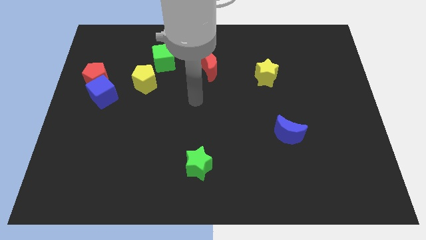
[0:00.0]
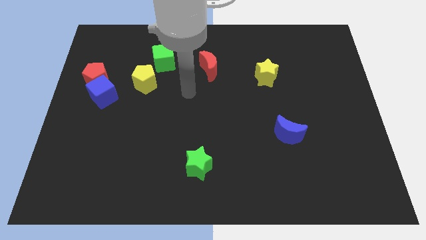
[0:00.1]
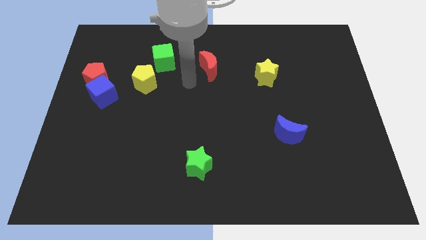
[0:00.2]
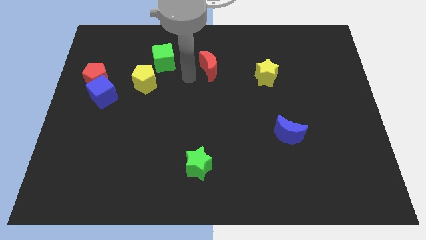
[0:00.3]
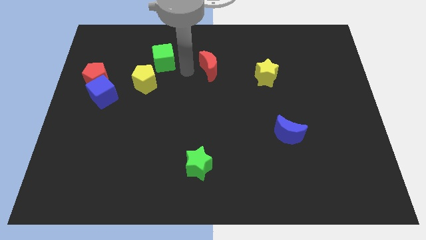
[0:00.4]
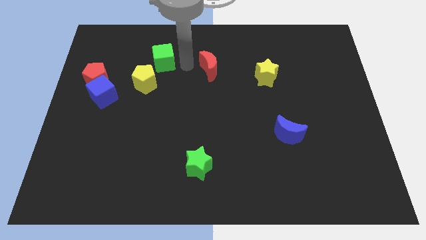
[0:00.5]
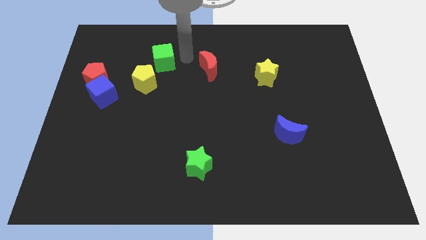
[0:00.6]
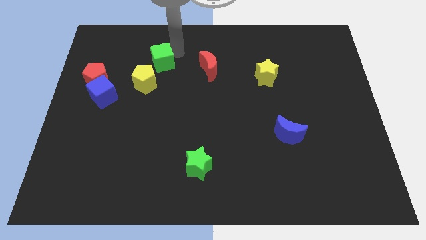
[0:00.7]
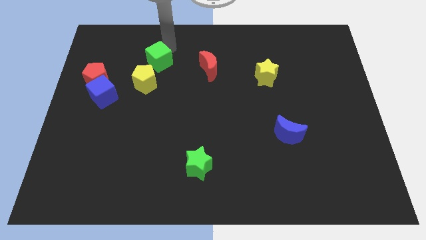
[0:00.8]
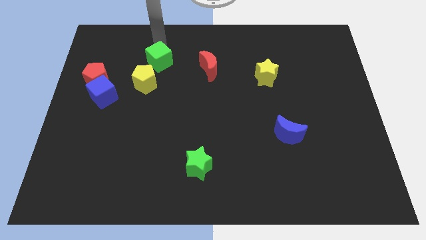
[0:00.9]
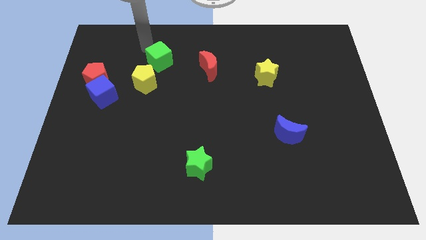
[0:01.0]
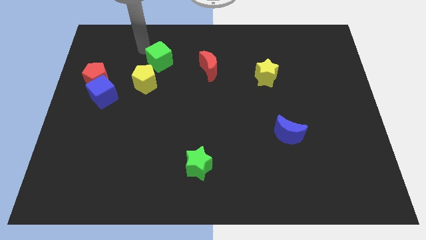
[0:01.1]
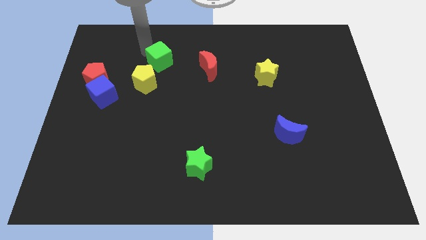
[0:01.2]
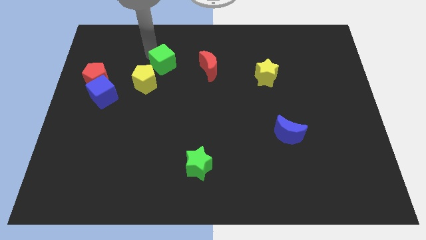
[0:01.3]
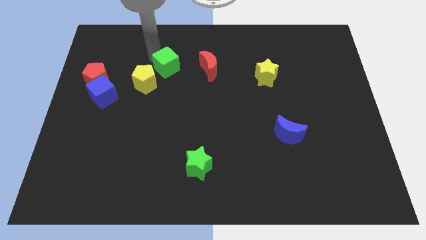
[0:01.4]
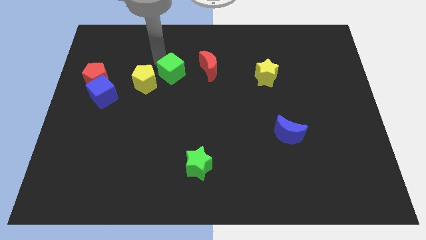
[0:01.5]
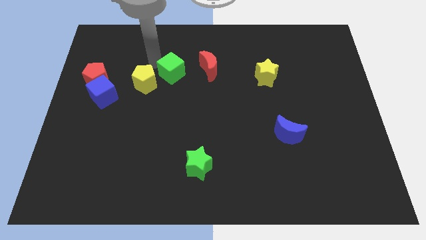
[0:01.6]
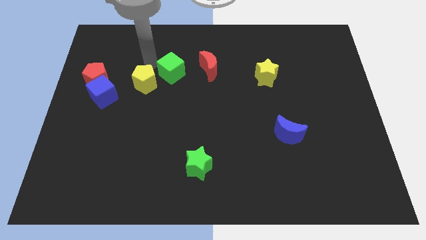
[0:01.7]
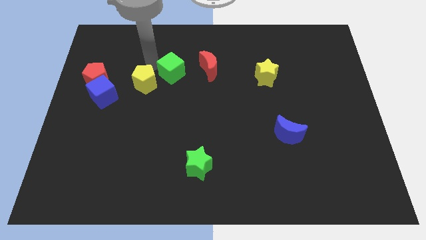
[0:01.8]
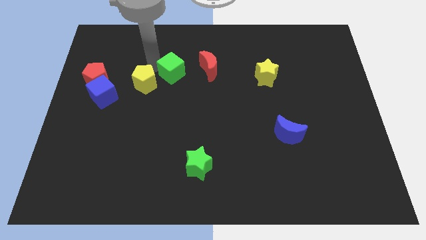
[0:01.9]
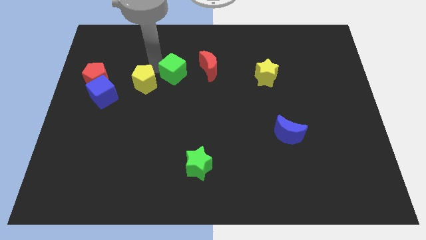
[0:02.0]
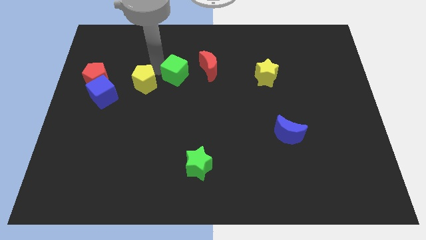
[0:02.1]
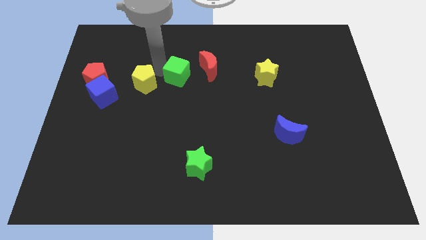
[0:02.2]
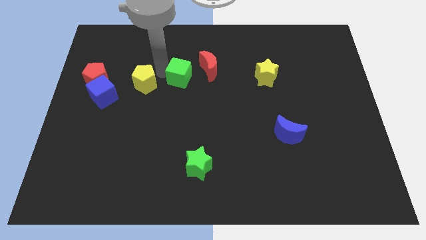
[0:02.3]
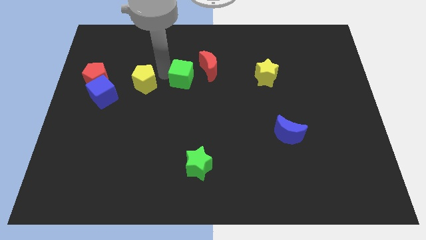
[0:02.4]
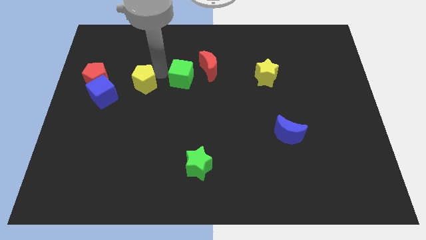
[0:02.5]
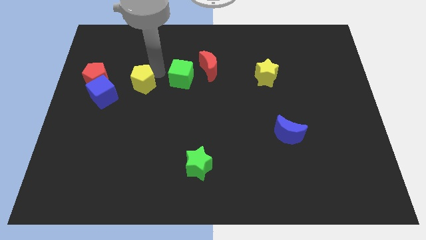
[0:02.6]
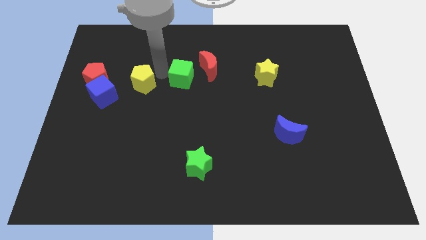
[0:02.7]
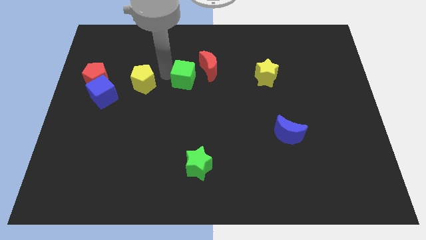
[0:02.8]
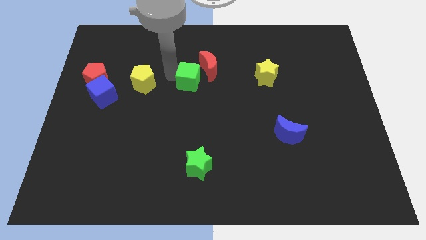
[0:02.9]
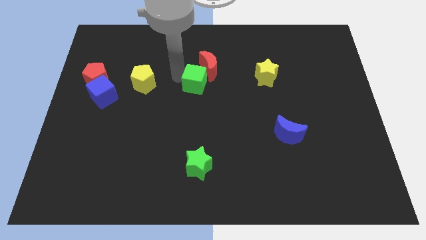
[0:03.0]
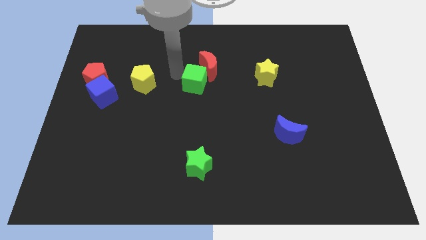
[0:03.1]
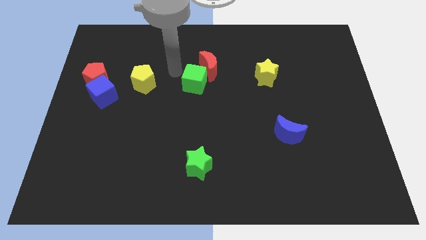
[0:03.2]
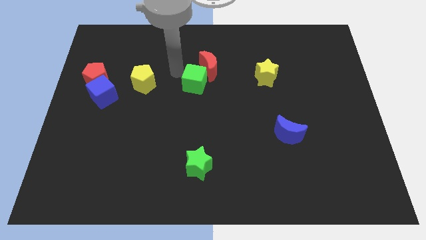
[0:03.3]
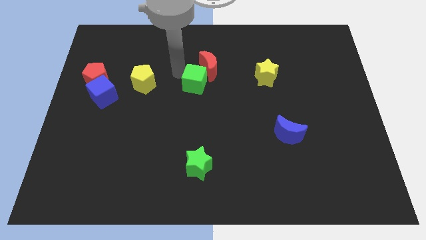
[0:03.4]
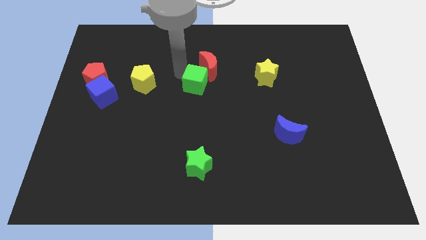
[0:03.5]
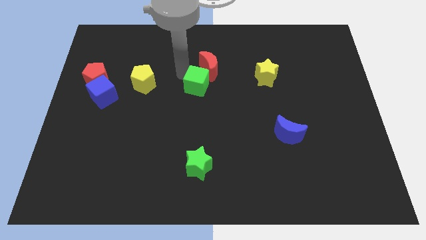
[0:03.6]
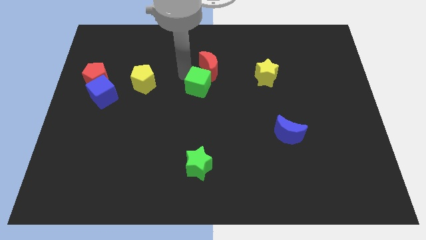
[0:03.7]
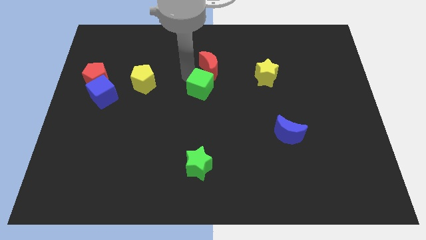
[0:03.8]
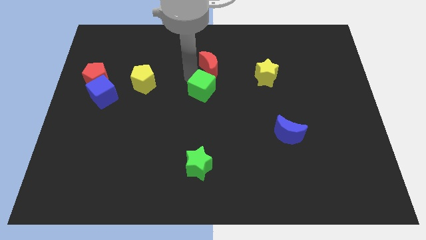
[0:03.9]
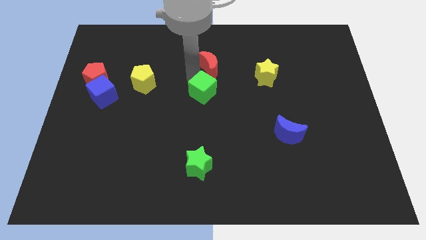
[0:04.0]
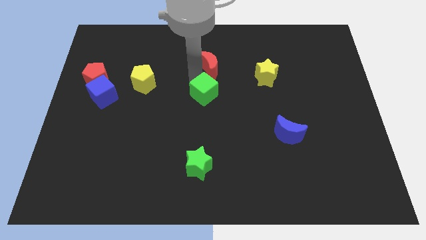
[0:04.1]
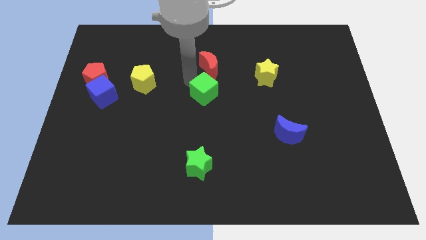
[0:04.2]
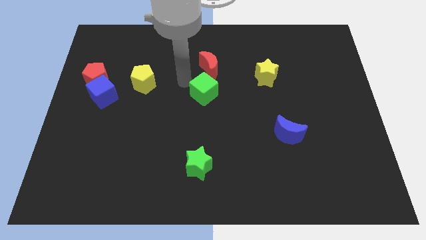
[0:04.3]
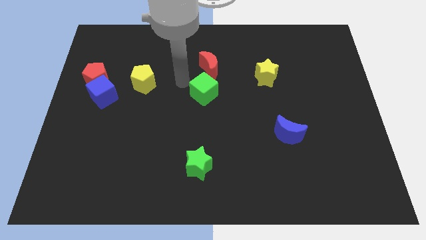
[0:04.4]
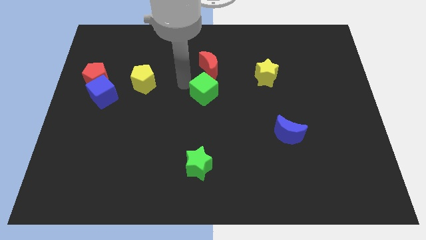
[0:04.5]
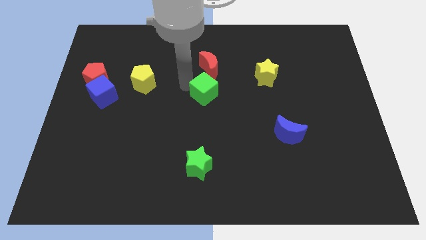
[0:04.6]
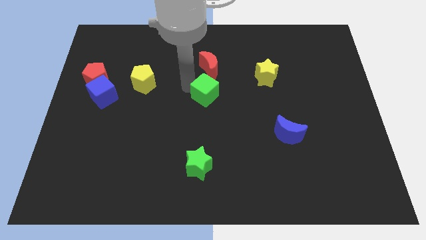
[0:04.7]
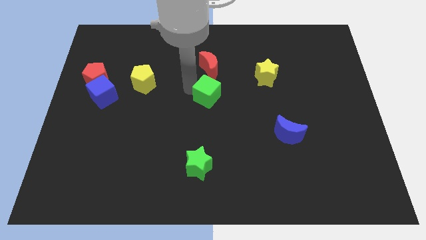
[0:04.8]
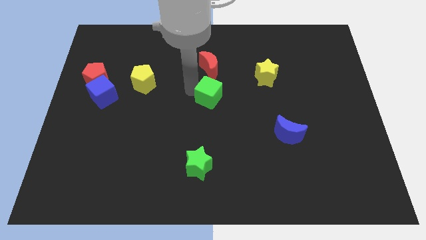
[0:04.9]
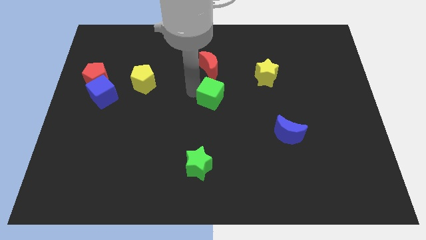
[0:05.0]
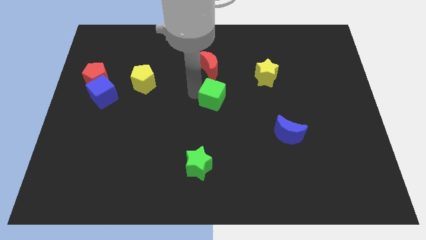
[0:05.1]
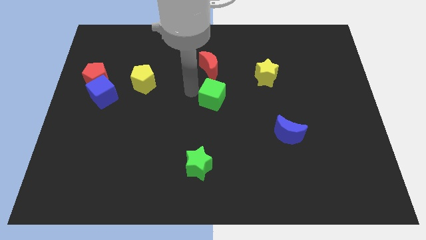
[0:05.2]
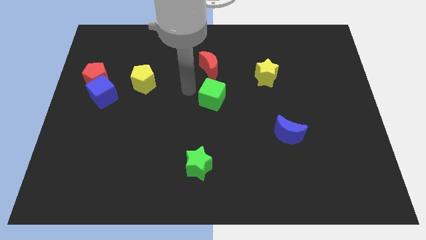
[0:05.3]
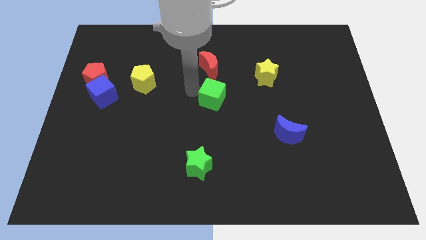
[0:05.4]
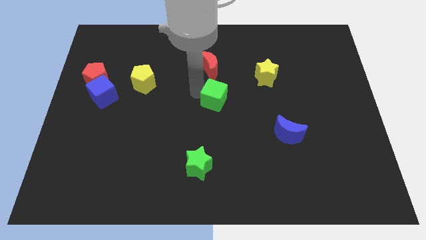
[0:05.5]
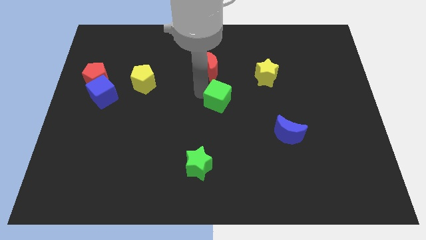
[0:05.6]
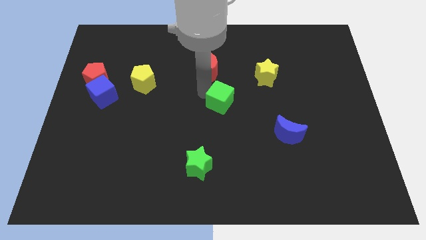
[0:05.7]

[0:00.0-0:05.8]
slide the green cube downwards and right diagonally

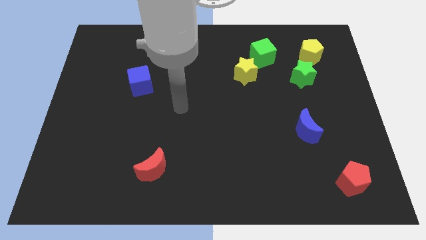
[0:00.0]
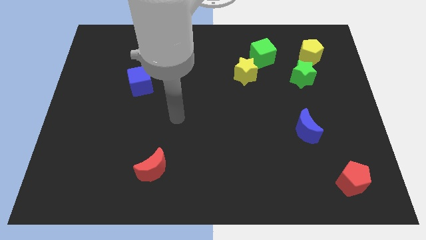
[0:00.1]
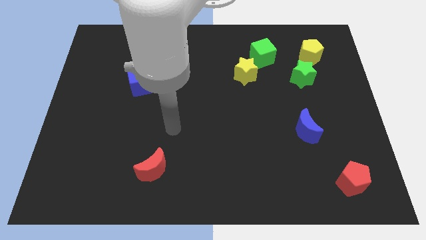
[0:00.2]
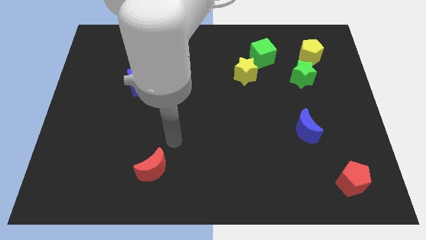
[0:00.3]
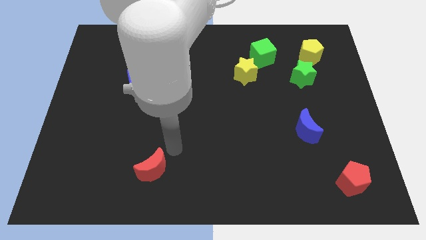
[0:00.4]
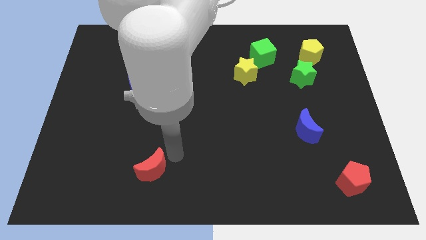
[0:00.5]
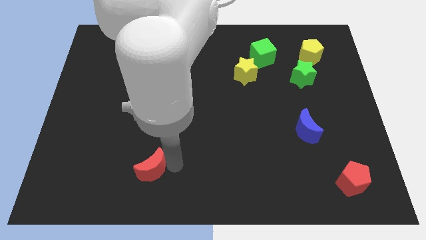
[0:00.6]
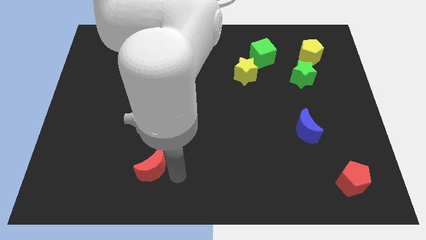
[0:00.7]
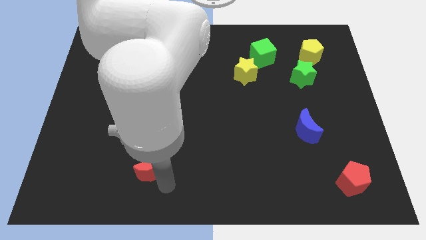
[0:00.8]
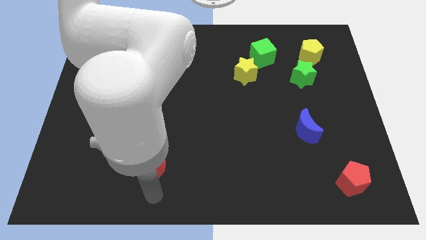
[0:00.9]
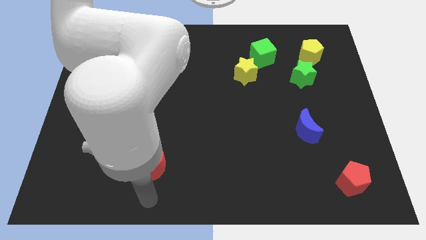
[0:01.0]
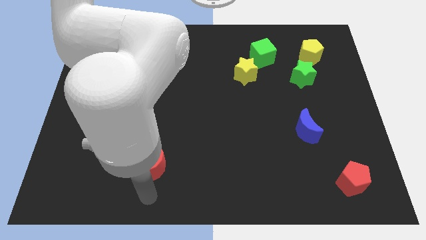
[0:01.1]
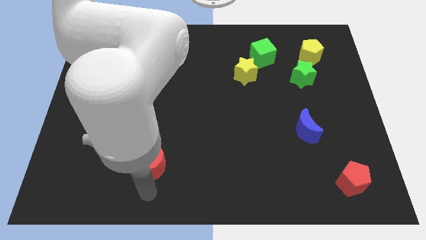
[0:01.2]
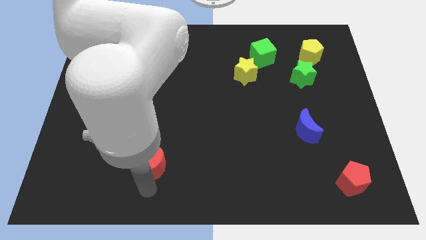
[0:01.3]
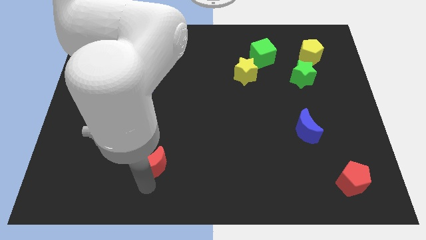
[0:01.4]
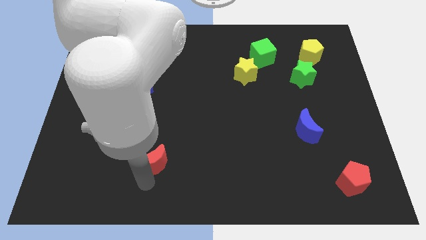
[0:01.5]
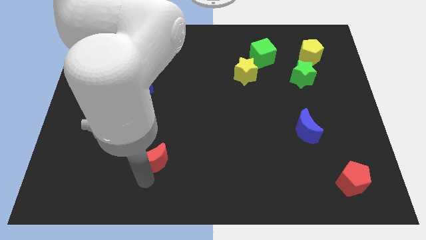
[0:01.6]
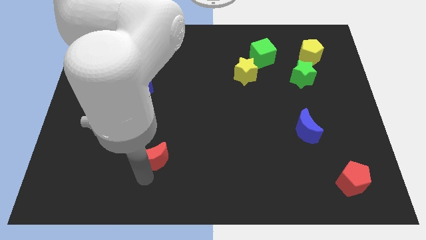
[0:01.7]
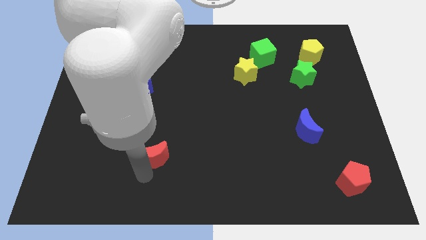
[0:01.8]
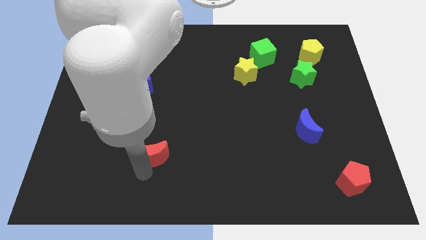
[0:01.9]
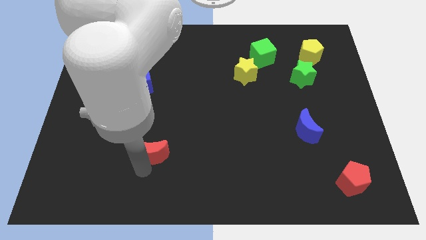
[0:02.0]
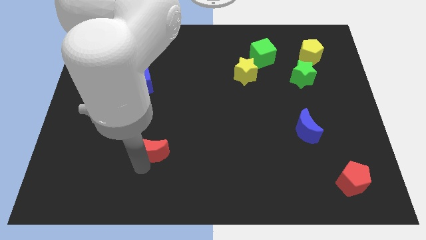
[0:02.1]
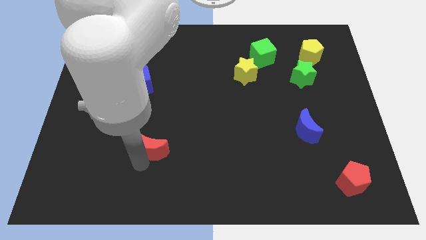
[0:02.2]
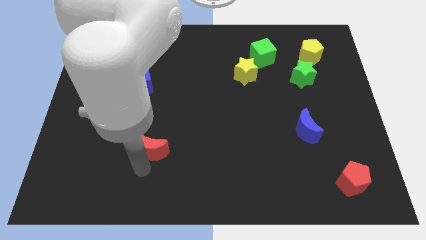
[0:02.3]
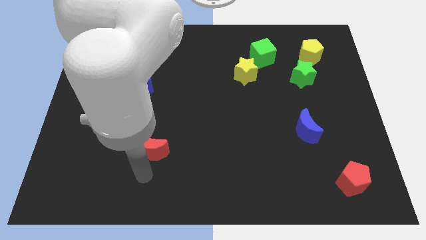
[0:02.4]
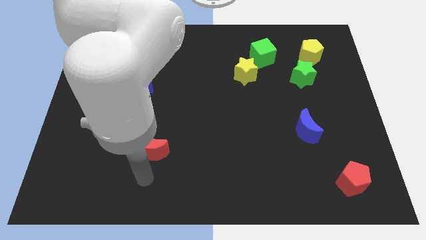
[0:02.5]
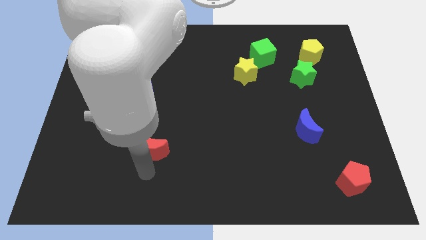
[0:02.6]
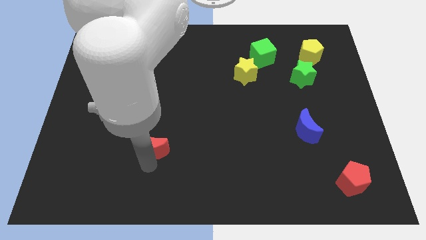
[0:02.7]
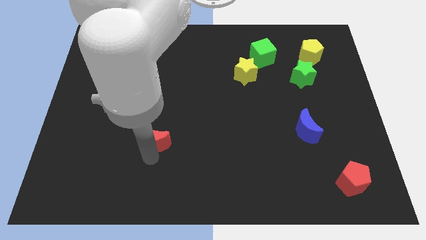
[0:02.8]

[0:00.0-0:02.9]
slightly move the red moon up
